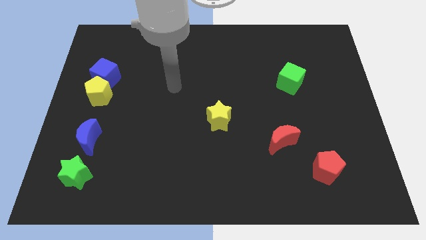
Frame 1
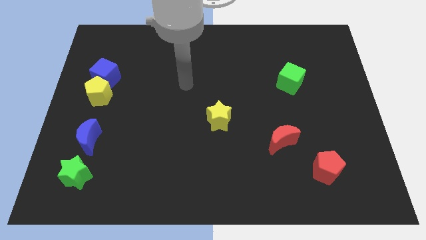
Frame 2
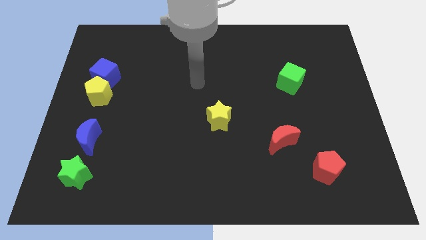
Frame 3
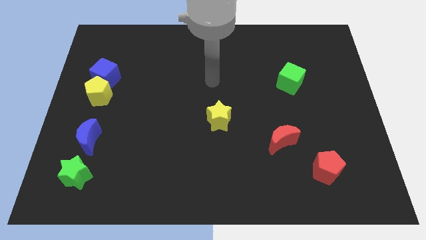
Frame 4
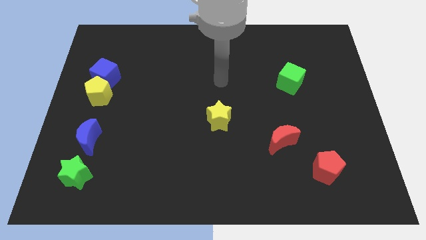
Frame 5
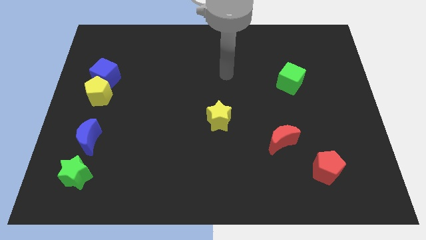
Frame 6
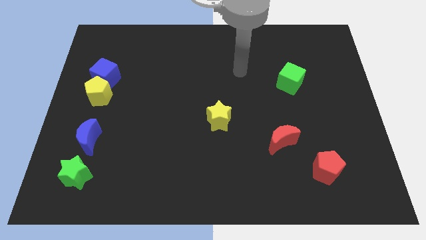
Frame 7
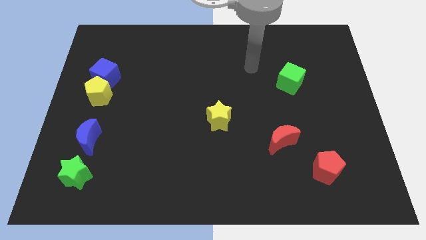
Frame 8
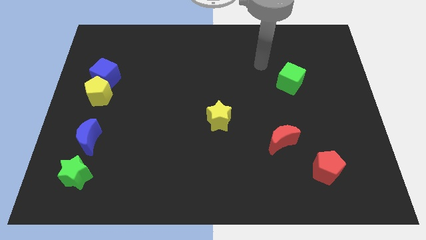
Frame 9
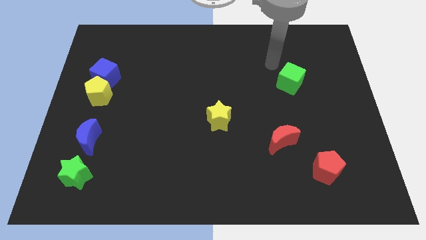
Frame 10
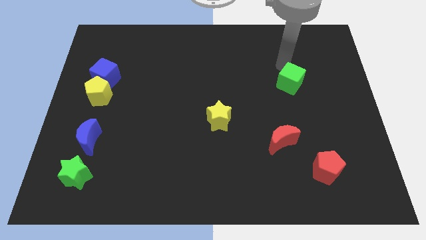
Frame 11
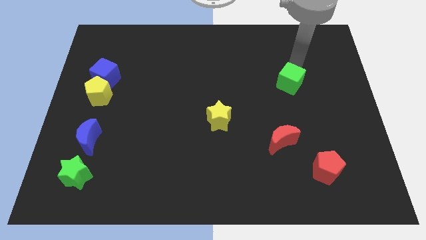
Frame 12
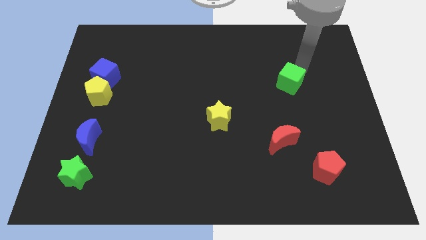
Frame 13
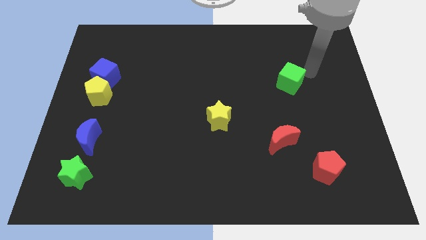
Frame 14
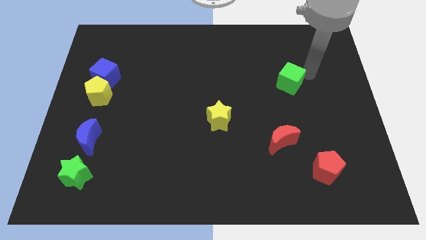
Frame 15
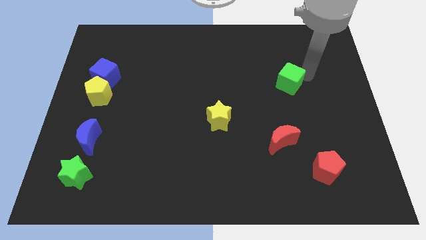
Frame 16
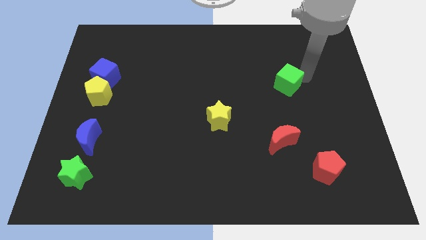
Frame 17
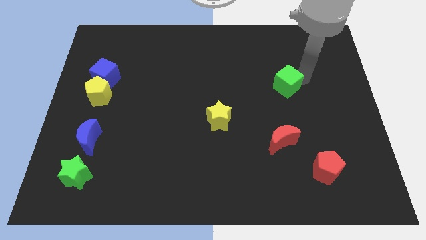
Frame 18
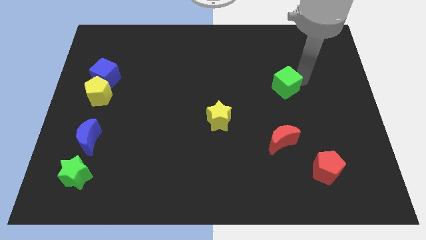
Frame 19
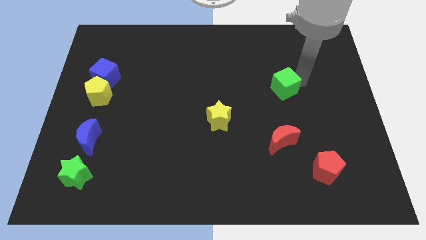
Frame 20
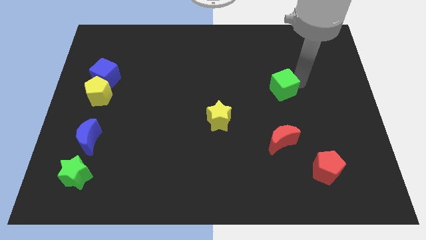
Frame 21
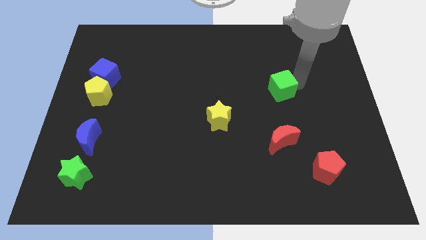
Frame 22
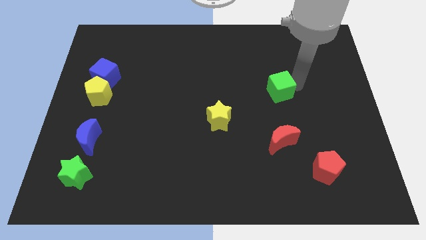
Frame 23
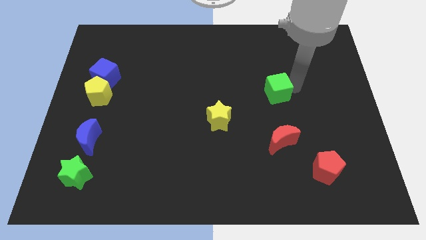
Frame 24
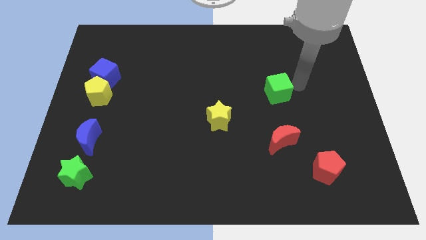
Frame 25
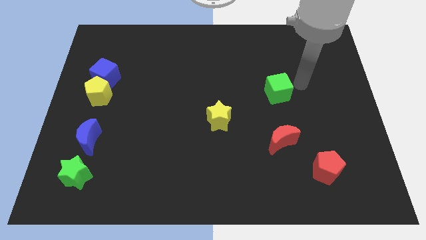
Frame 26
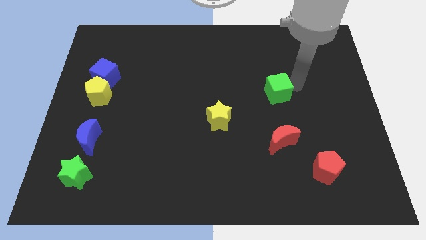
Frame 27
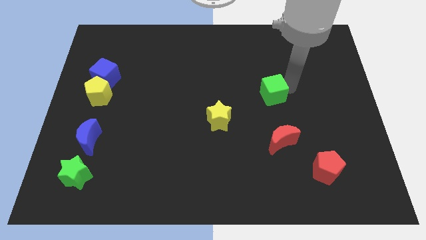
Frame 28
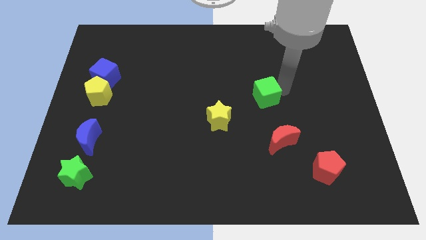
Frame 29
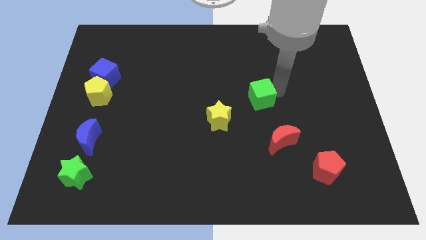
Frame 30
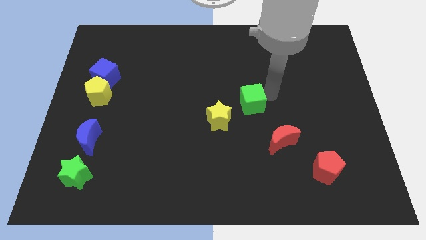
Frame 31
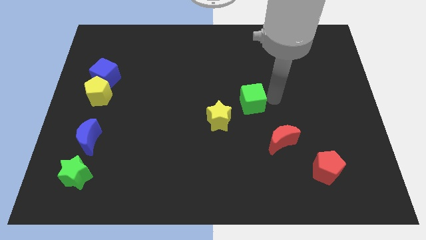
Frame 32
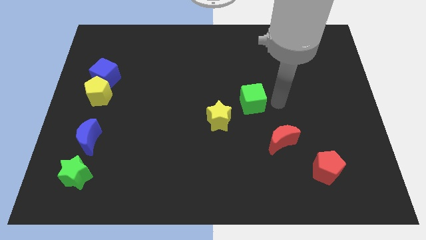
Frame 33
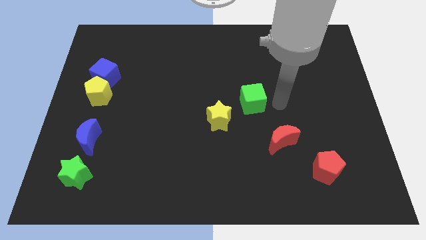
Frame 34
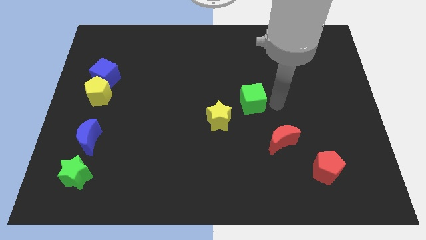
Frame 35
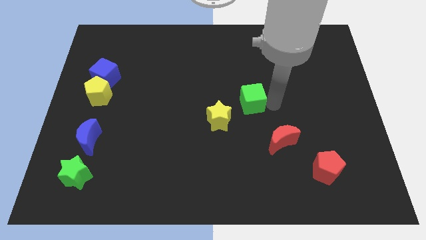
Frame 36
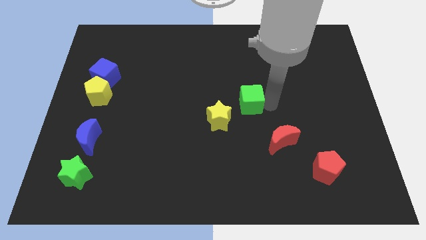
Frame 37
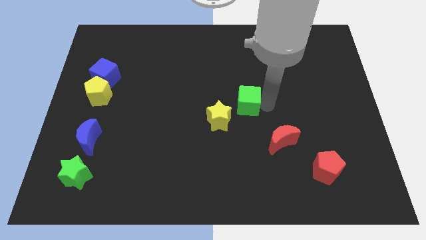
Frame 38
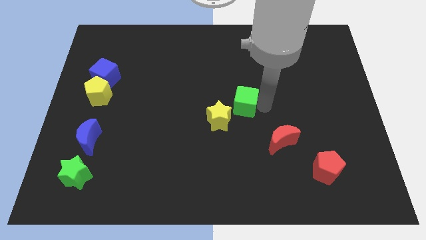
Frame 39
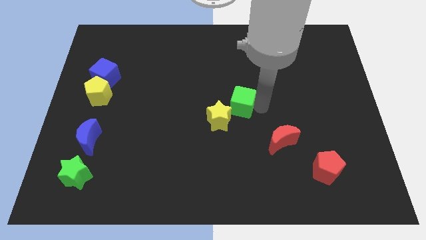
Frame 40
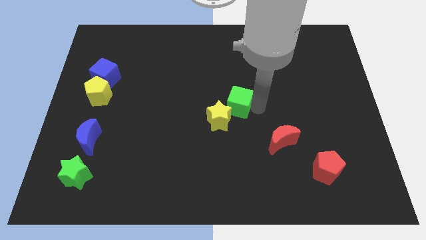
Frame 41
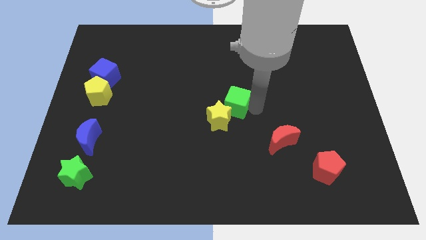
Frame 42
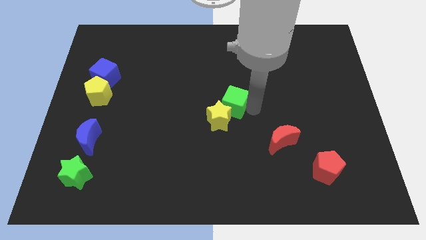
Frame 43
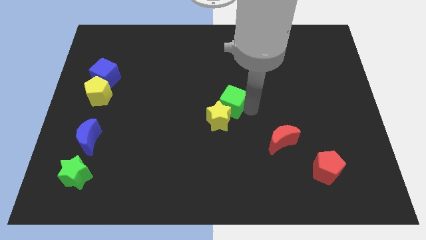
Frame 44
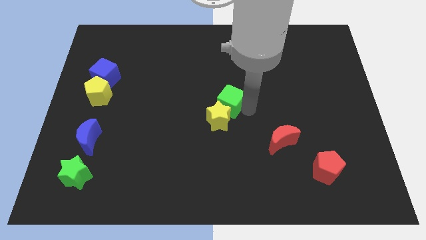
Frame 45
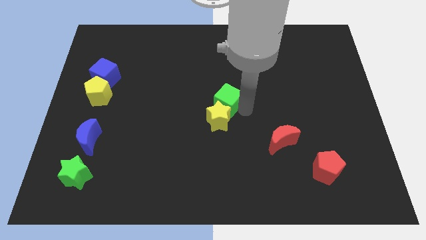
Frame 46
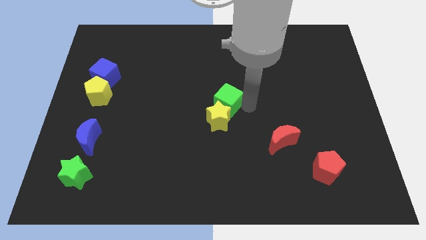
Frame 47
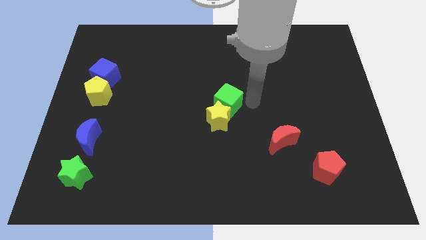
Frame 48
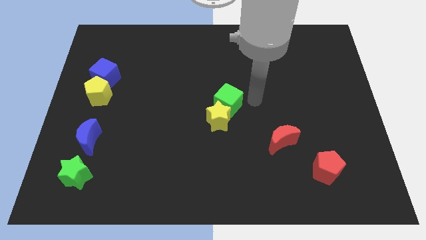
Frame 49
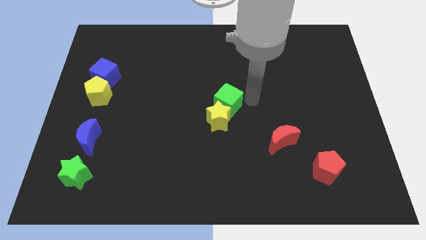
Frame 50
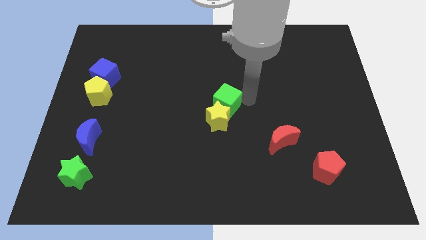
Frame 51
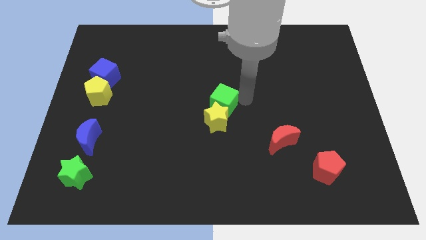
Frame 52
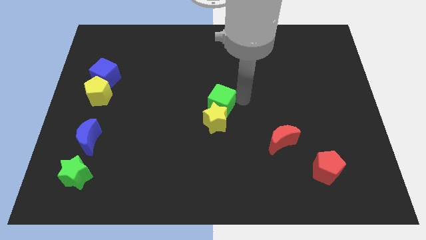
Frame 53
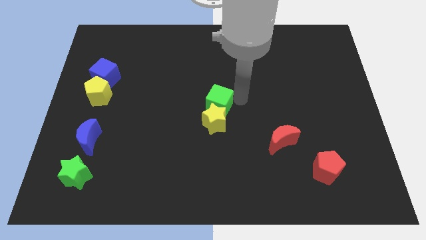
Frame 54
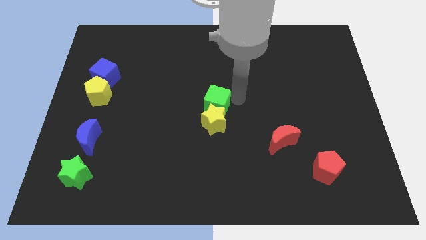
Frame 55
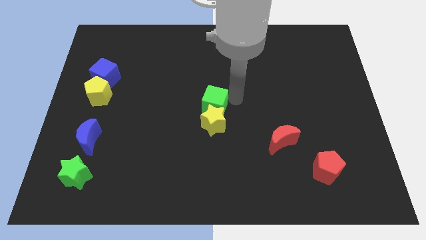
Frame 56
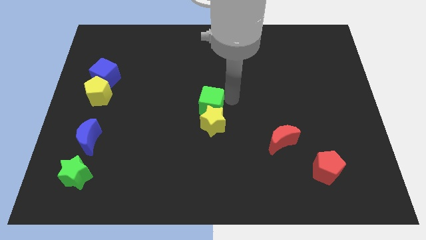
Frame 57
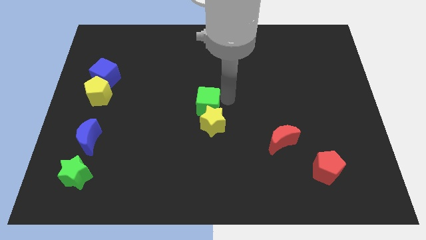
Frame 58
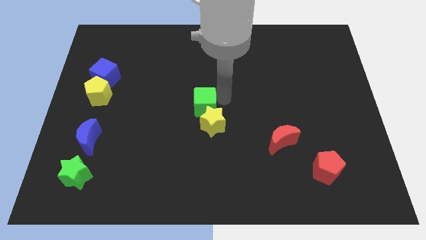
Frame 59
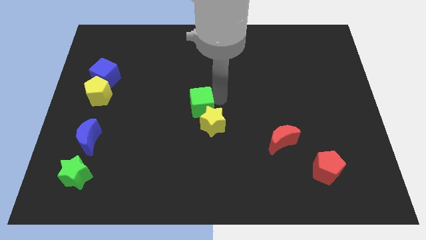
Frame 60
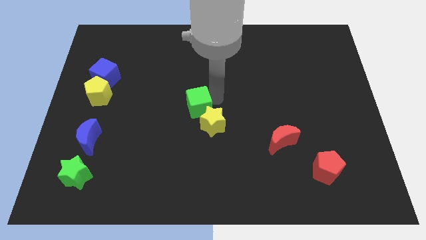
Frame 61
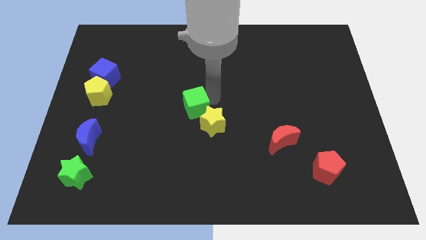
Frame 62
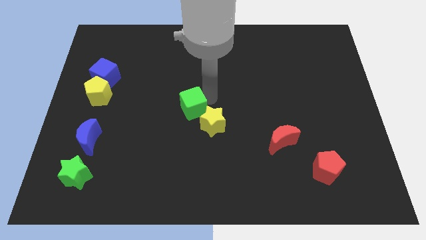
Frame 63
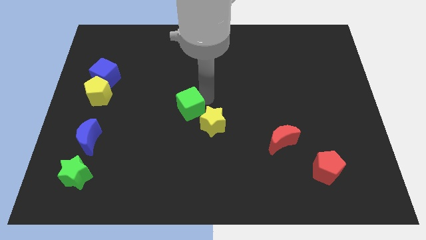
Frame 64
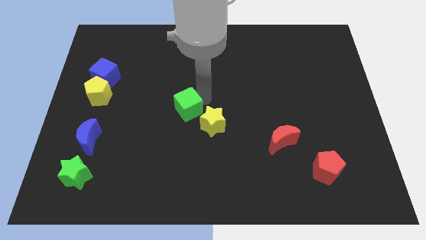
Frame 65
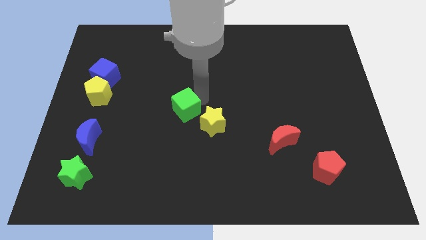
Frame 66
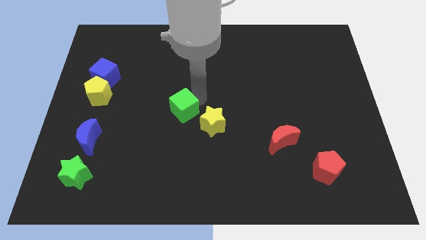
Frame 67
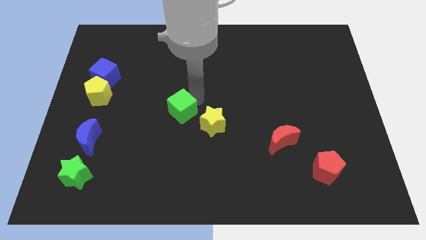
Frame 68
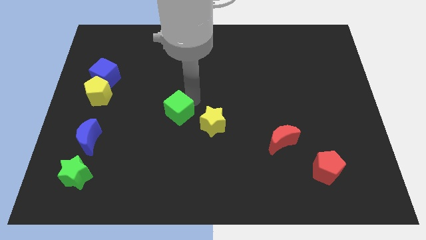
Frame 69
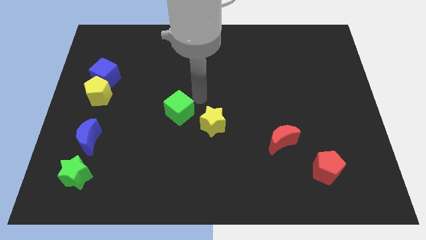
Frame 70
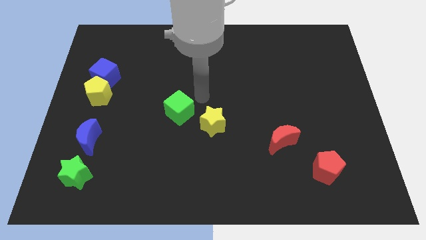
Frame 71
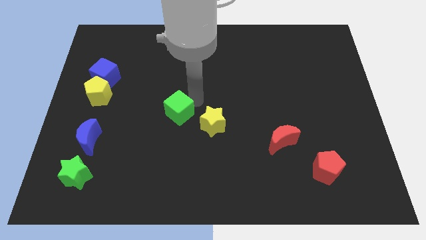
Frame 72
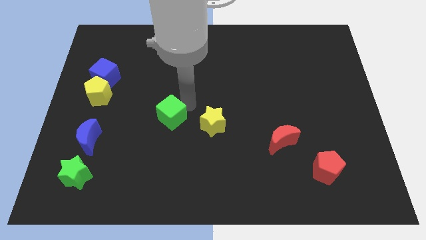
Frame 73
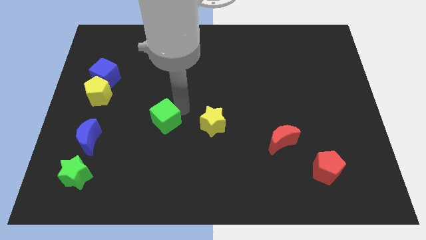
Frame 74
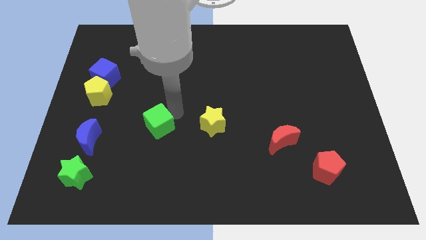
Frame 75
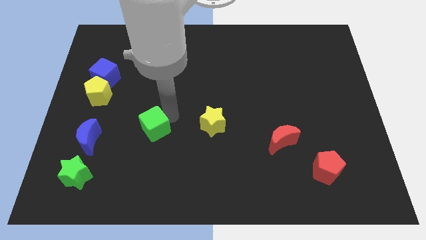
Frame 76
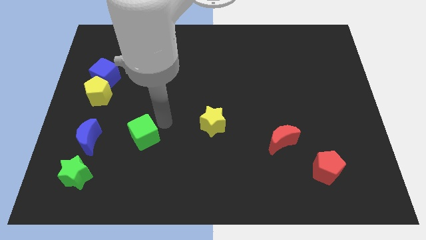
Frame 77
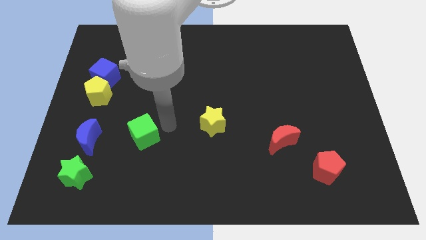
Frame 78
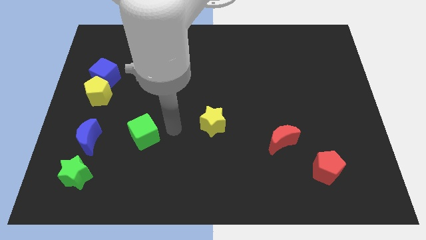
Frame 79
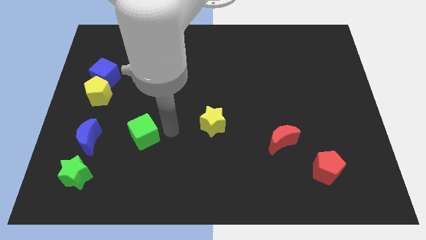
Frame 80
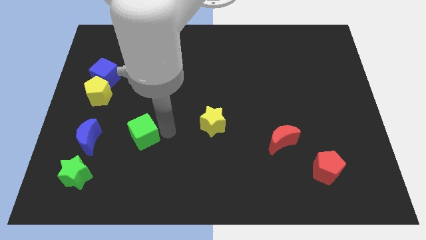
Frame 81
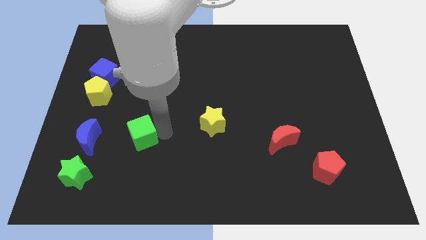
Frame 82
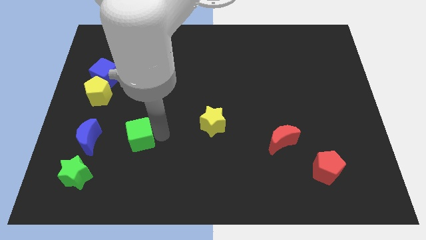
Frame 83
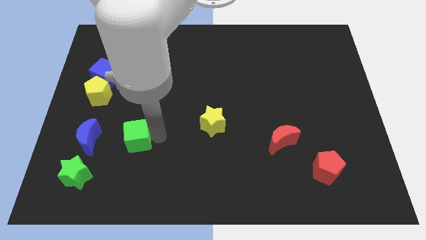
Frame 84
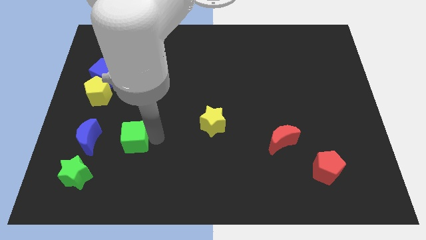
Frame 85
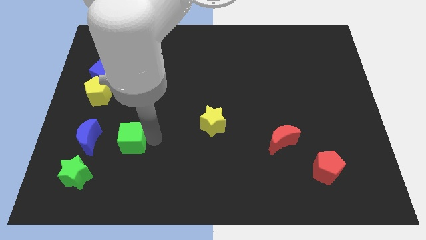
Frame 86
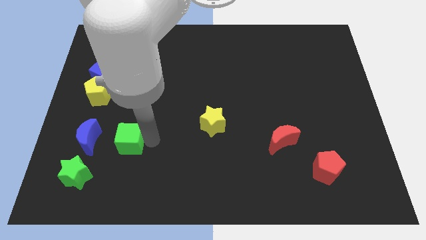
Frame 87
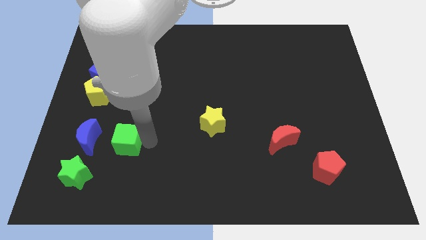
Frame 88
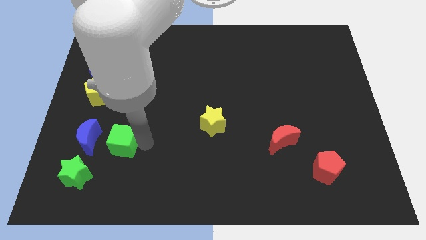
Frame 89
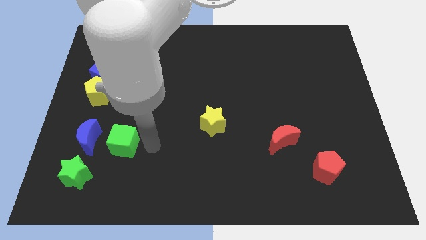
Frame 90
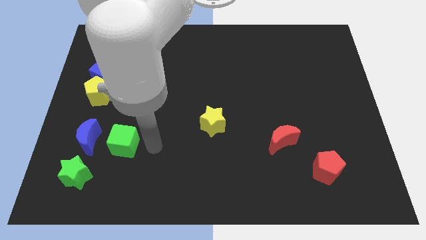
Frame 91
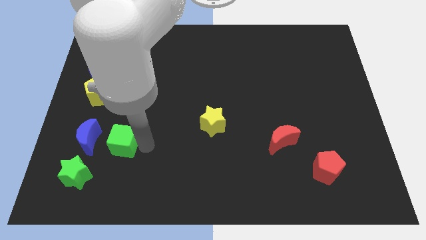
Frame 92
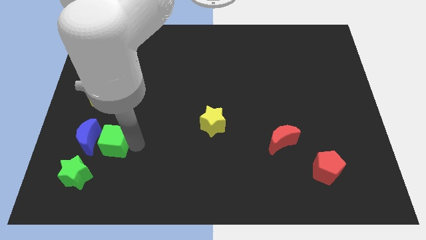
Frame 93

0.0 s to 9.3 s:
push the green cube close to the blue moon
